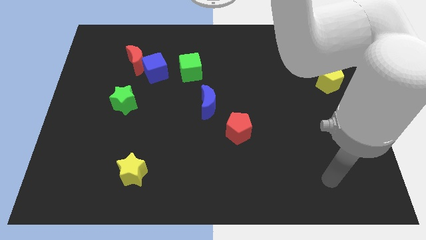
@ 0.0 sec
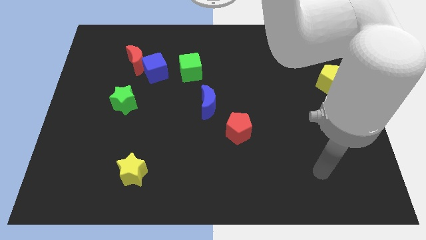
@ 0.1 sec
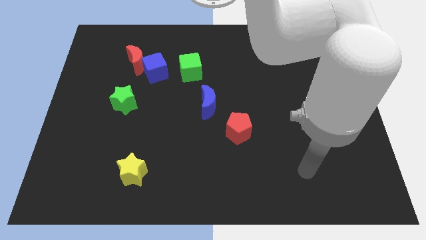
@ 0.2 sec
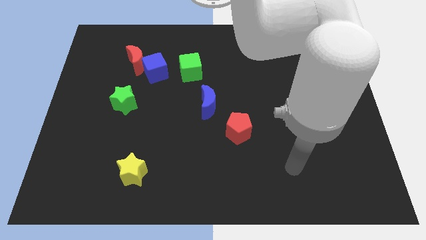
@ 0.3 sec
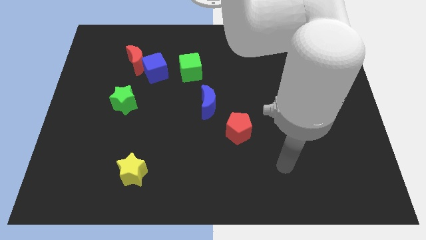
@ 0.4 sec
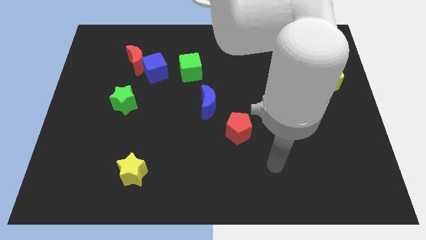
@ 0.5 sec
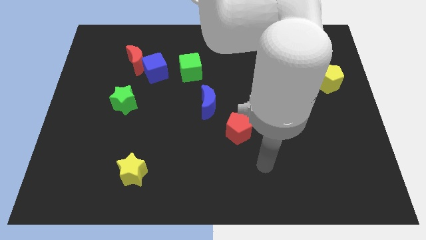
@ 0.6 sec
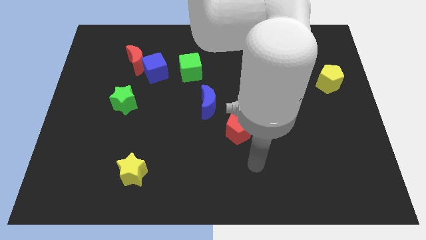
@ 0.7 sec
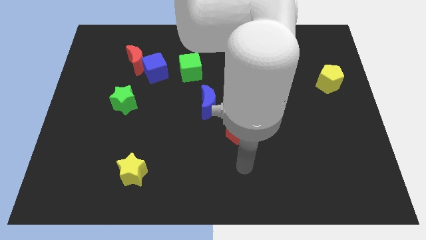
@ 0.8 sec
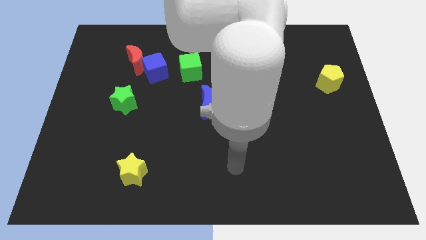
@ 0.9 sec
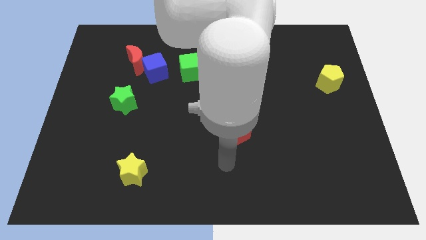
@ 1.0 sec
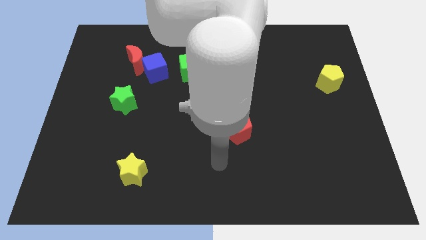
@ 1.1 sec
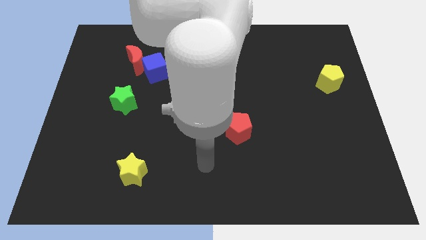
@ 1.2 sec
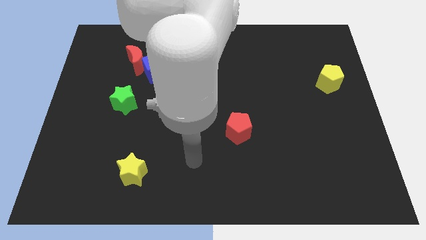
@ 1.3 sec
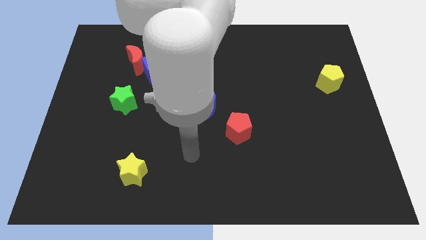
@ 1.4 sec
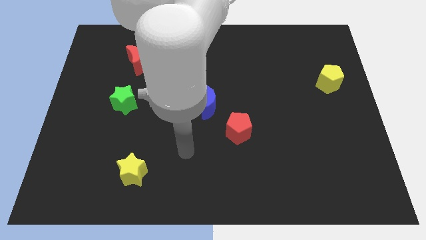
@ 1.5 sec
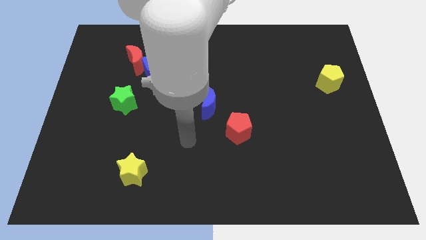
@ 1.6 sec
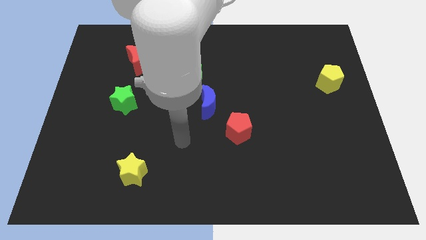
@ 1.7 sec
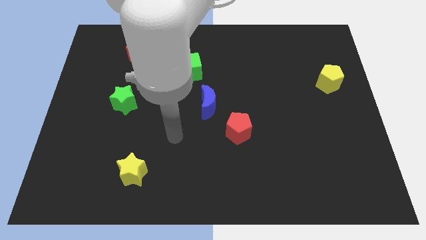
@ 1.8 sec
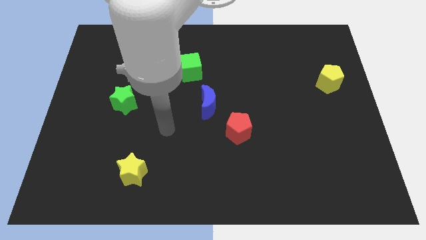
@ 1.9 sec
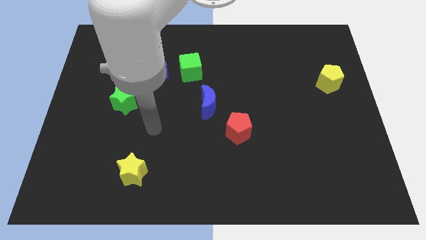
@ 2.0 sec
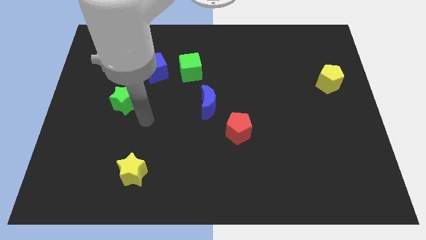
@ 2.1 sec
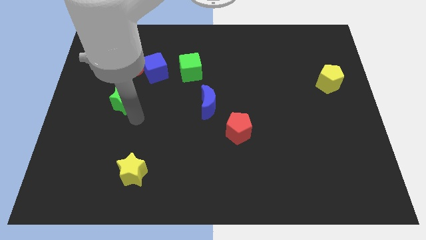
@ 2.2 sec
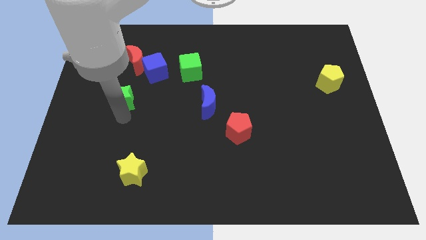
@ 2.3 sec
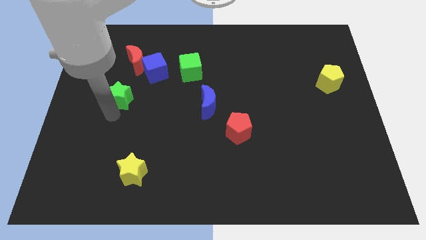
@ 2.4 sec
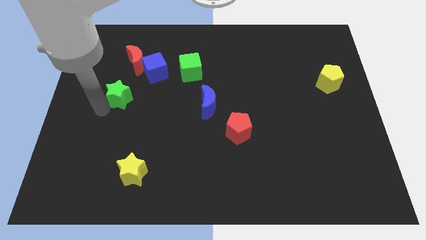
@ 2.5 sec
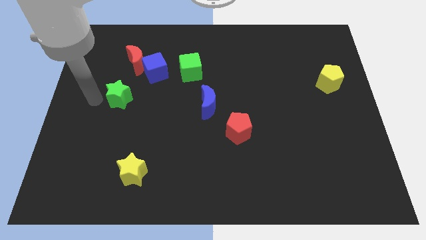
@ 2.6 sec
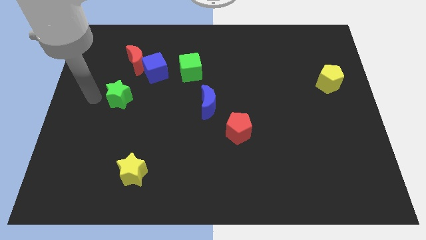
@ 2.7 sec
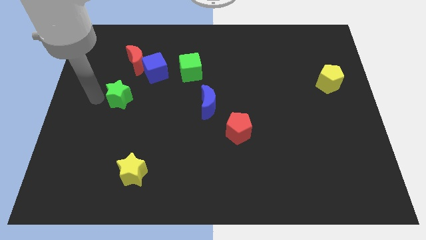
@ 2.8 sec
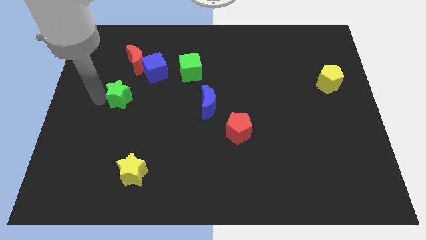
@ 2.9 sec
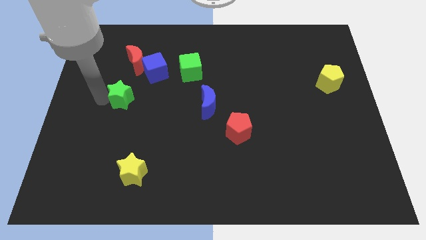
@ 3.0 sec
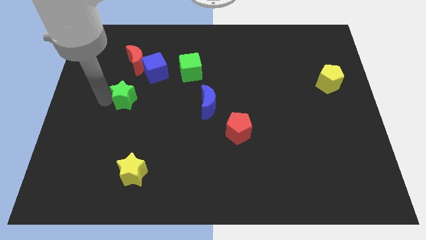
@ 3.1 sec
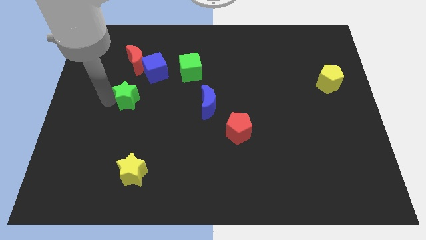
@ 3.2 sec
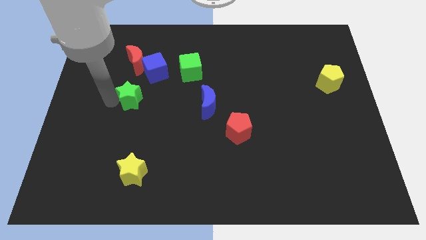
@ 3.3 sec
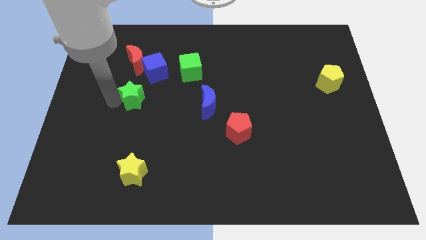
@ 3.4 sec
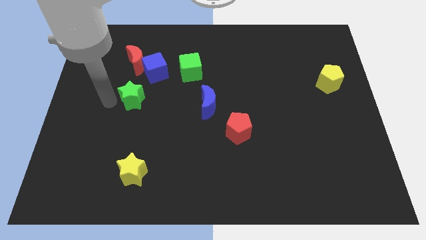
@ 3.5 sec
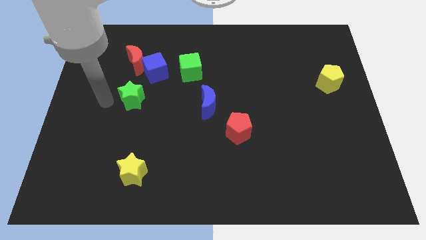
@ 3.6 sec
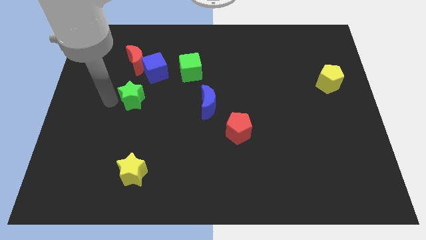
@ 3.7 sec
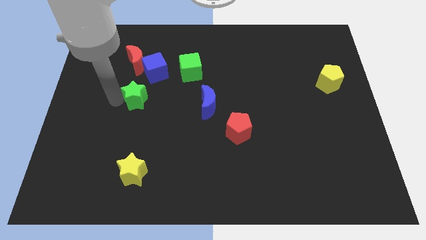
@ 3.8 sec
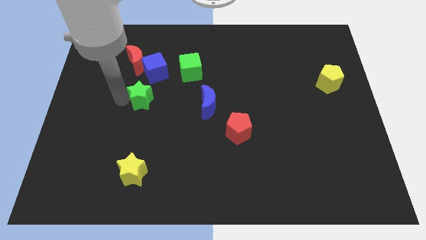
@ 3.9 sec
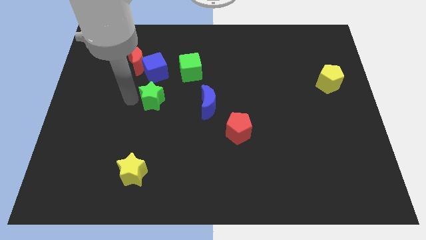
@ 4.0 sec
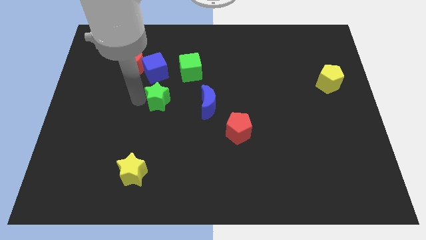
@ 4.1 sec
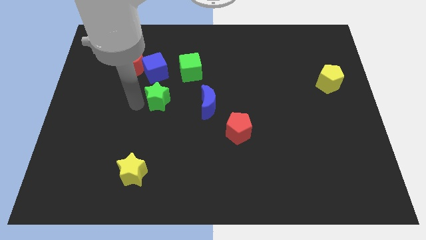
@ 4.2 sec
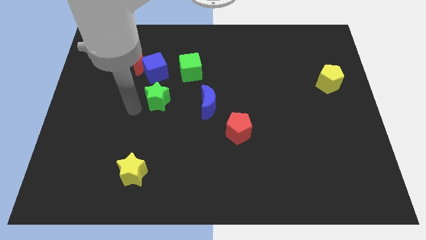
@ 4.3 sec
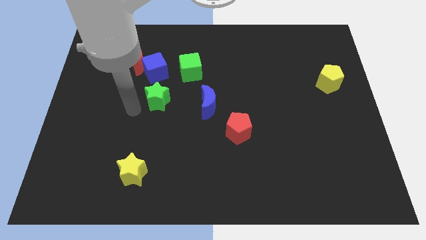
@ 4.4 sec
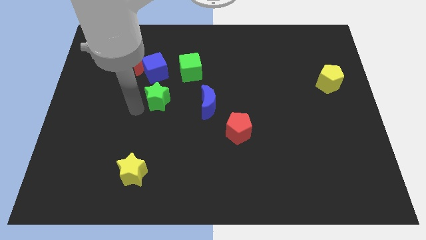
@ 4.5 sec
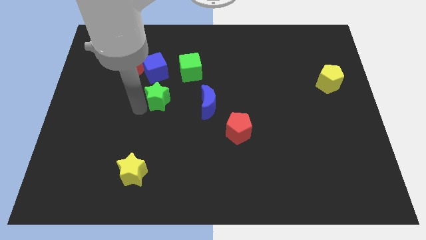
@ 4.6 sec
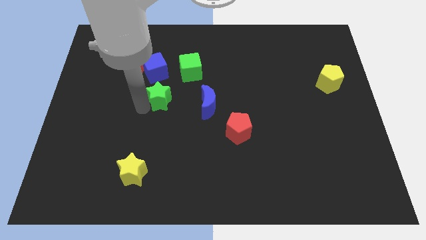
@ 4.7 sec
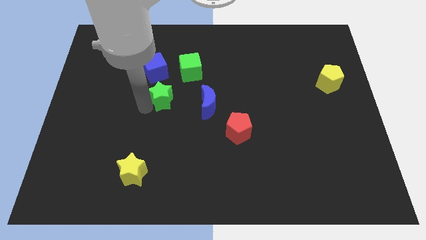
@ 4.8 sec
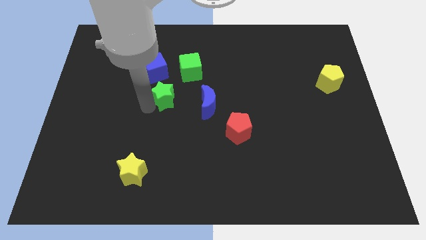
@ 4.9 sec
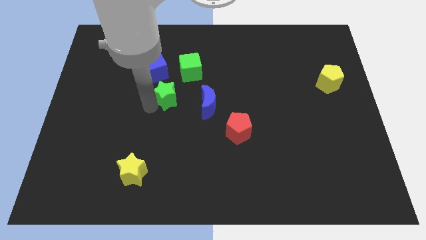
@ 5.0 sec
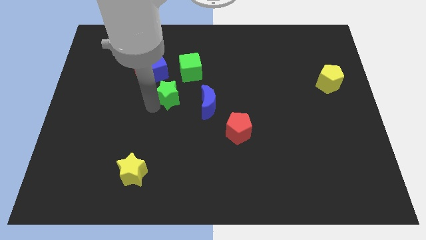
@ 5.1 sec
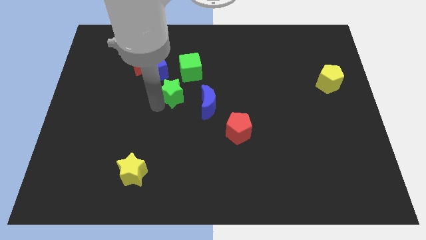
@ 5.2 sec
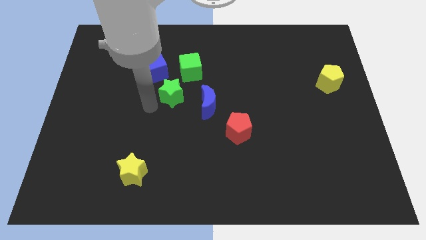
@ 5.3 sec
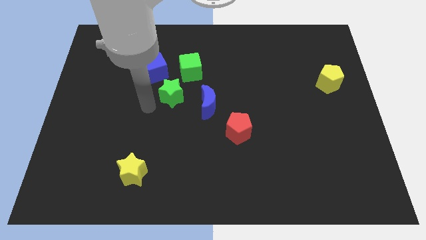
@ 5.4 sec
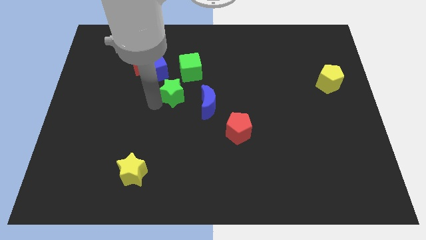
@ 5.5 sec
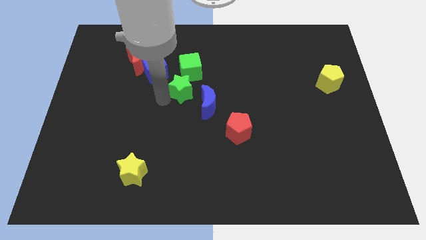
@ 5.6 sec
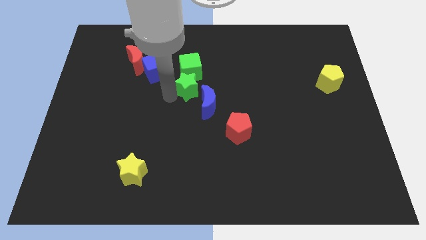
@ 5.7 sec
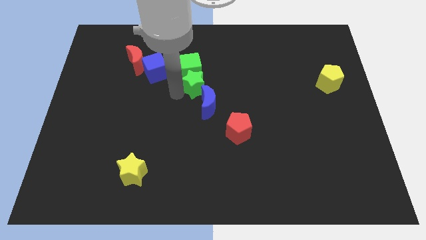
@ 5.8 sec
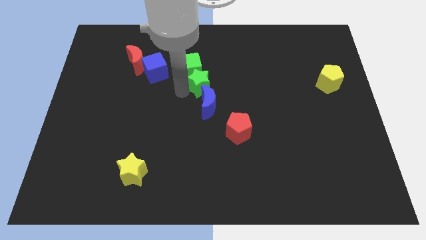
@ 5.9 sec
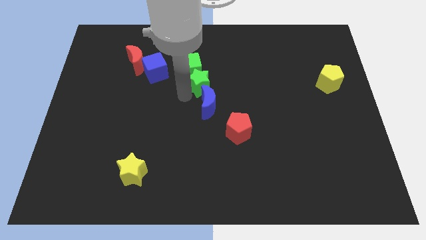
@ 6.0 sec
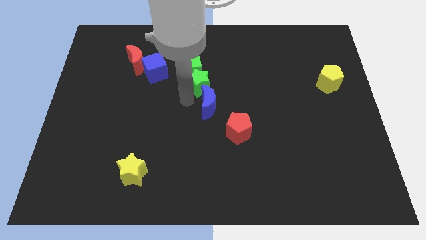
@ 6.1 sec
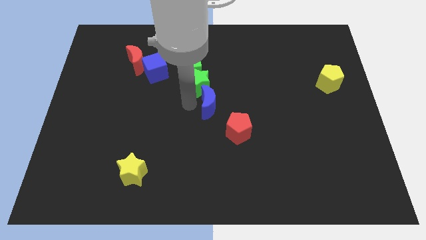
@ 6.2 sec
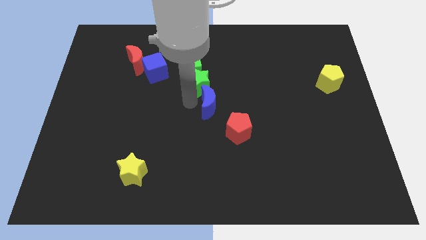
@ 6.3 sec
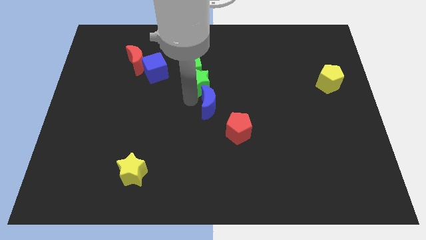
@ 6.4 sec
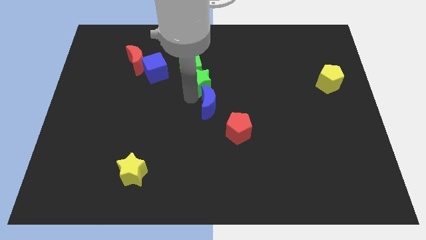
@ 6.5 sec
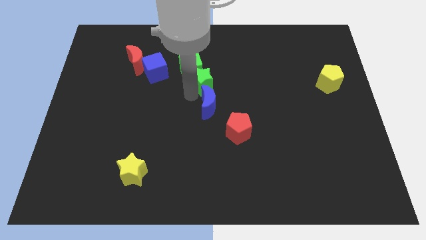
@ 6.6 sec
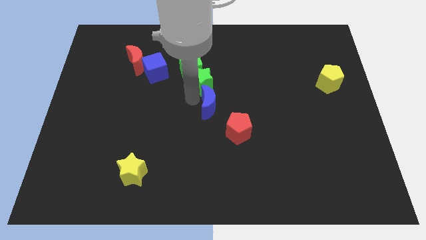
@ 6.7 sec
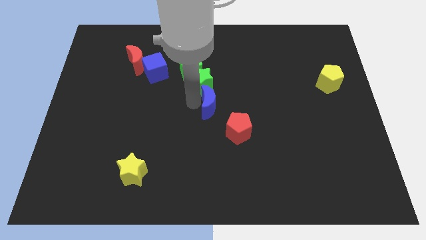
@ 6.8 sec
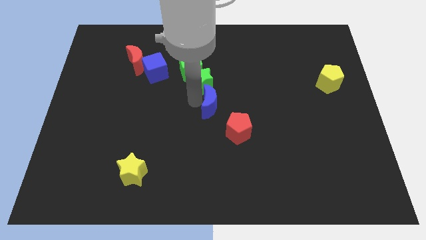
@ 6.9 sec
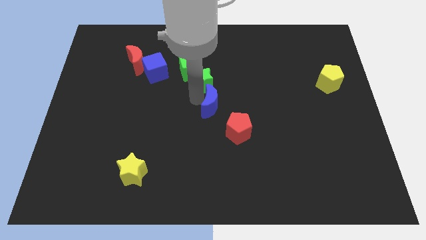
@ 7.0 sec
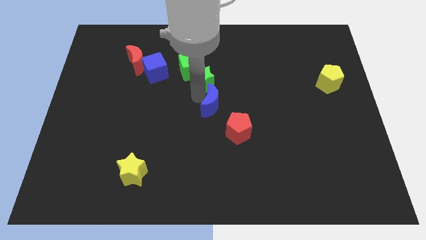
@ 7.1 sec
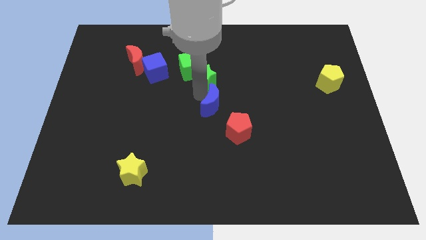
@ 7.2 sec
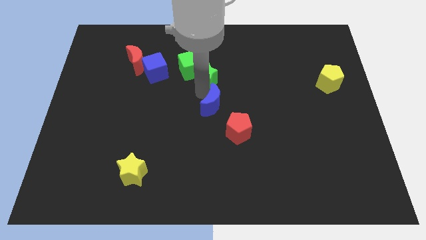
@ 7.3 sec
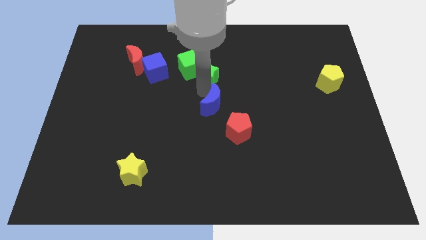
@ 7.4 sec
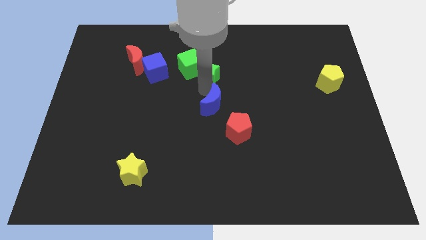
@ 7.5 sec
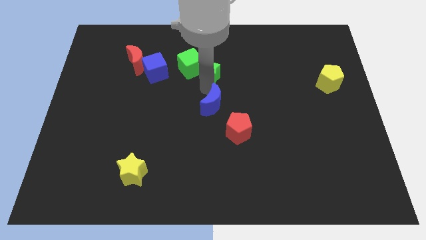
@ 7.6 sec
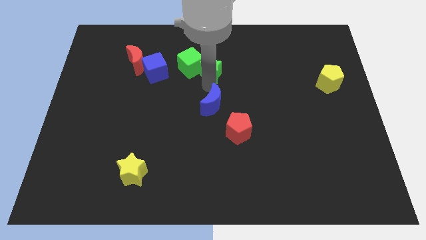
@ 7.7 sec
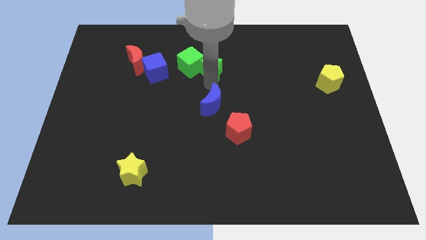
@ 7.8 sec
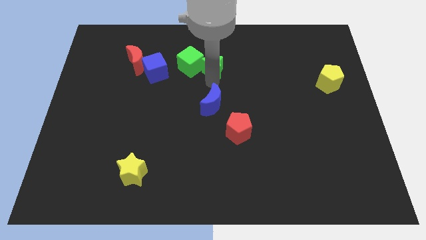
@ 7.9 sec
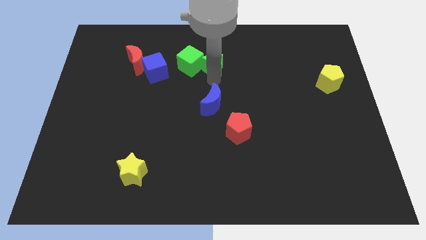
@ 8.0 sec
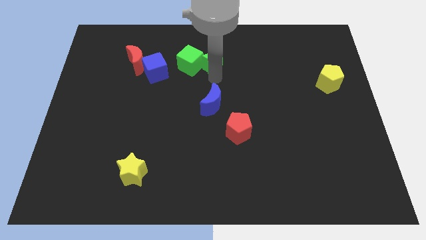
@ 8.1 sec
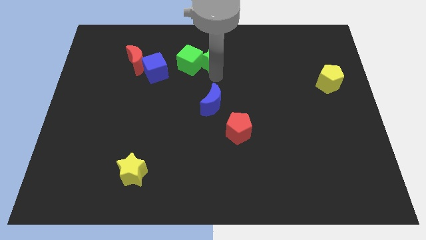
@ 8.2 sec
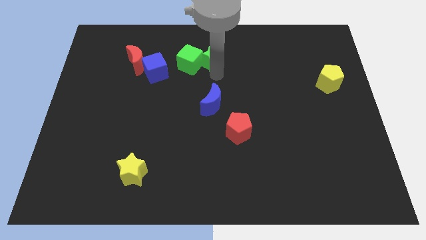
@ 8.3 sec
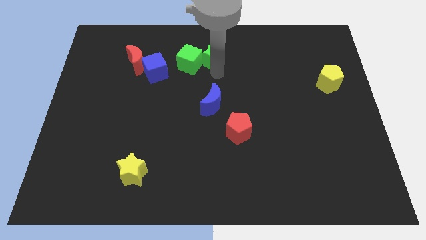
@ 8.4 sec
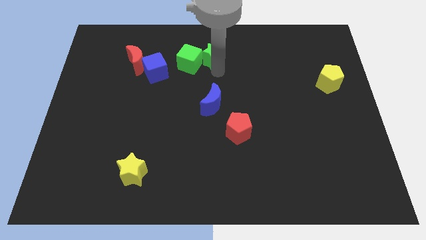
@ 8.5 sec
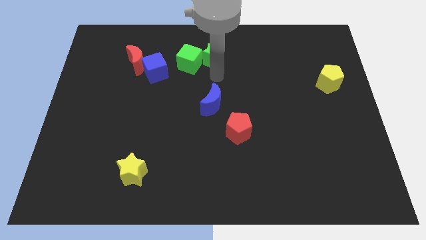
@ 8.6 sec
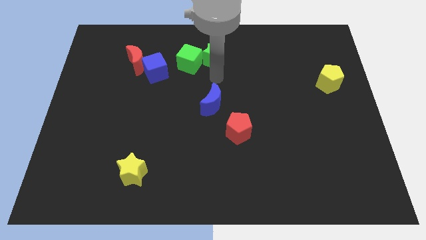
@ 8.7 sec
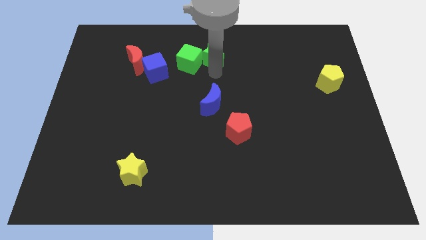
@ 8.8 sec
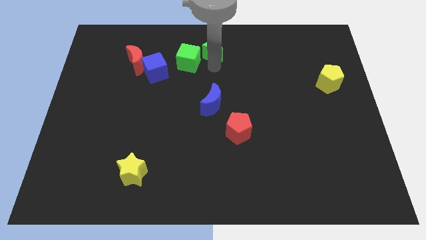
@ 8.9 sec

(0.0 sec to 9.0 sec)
move the green star to the top side
